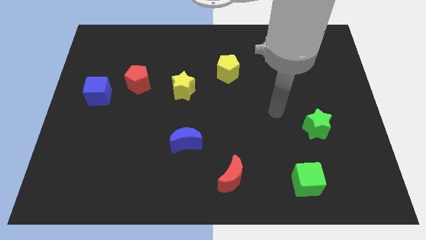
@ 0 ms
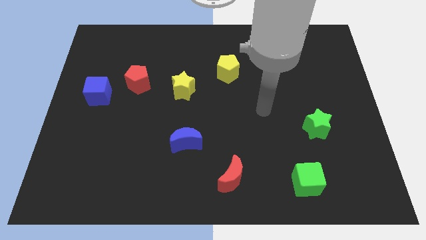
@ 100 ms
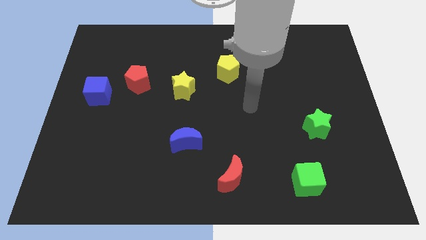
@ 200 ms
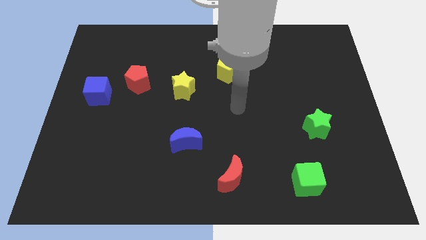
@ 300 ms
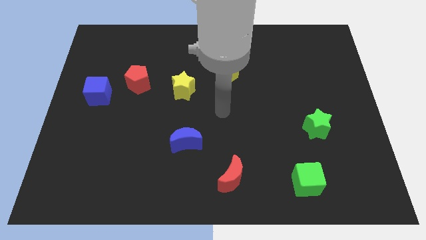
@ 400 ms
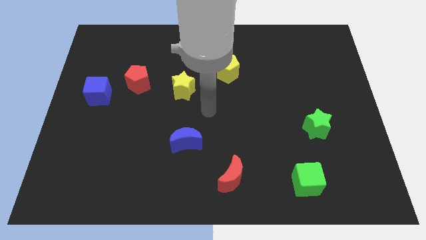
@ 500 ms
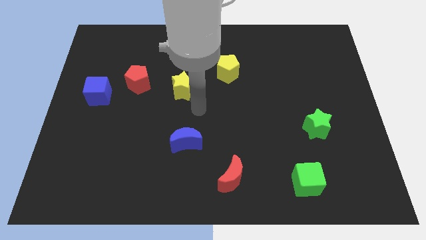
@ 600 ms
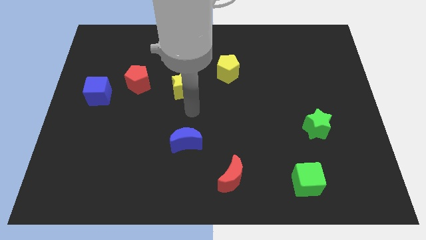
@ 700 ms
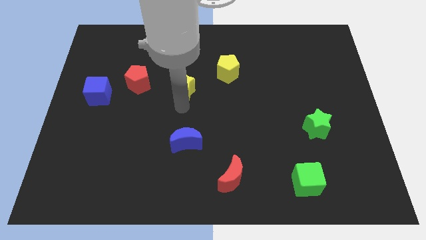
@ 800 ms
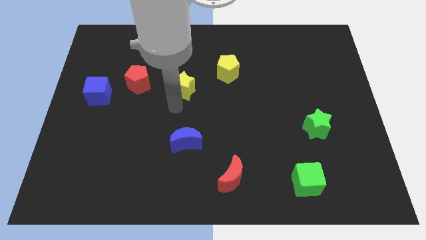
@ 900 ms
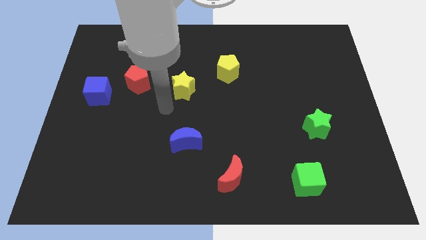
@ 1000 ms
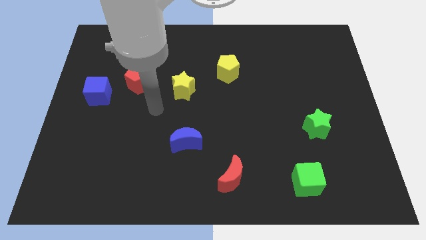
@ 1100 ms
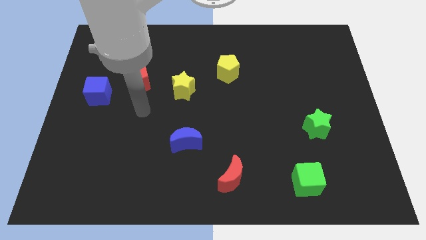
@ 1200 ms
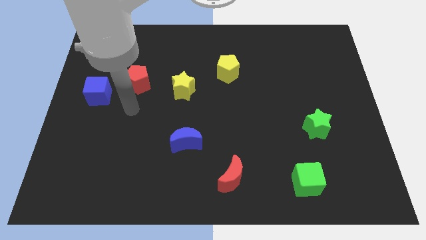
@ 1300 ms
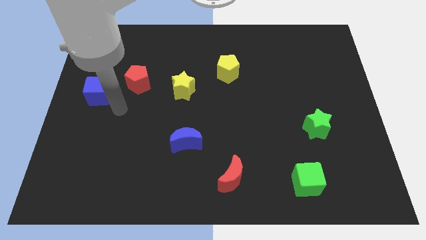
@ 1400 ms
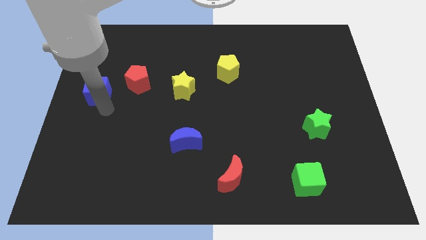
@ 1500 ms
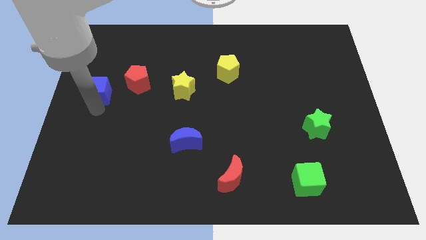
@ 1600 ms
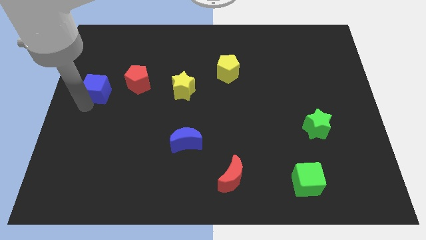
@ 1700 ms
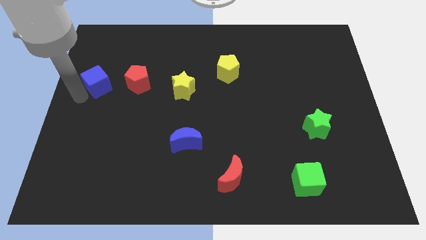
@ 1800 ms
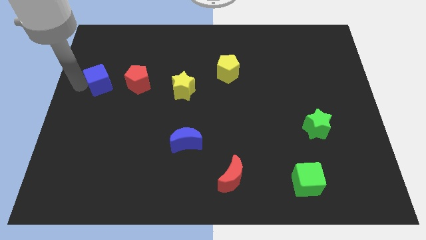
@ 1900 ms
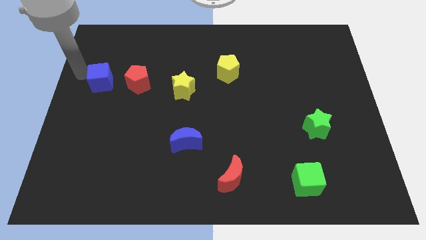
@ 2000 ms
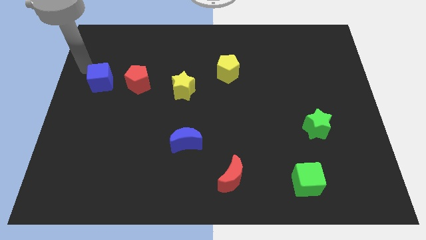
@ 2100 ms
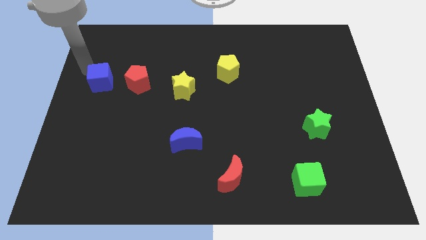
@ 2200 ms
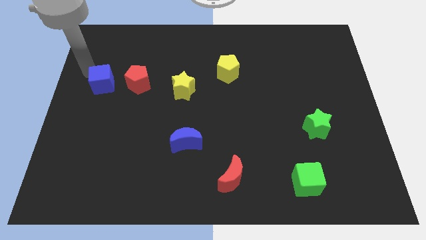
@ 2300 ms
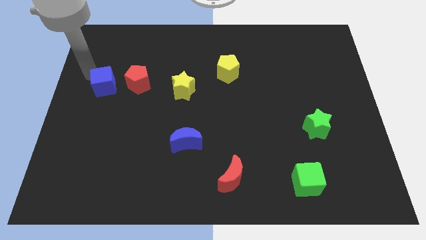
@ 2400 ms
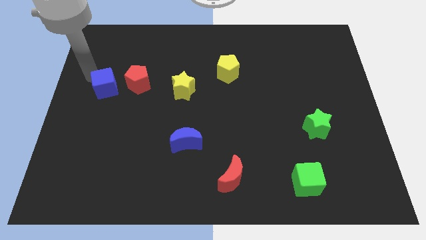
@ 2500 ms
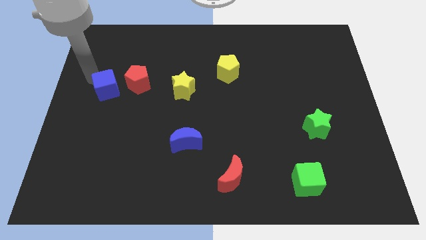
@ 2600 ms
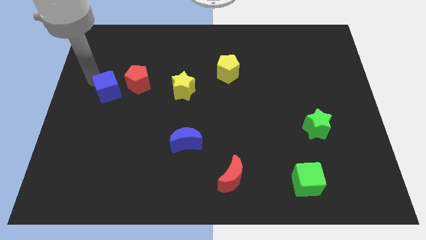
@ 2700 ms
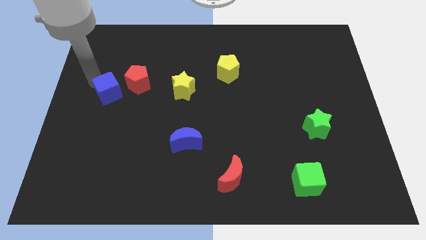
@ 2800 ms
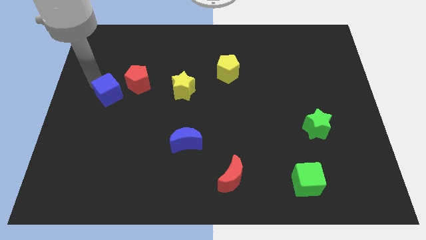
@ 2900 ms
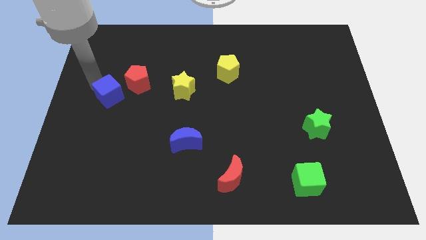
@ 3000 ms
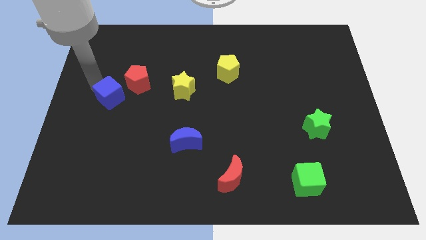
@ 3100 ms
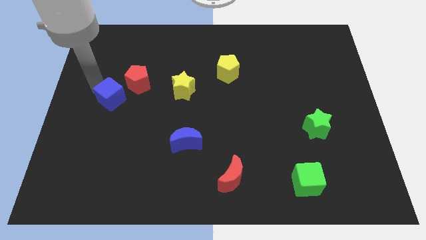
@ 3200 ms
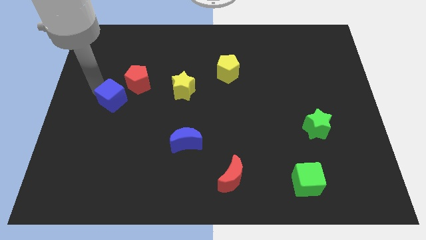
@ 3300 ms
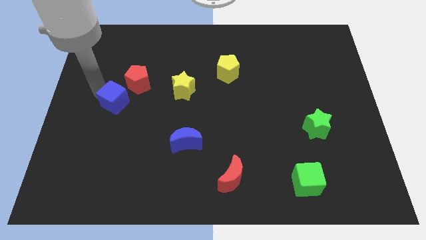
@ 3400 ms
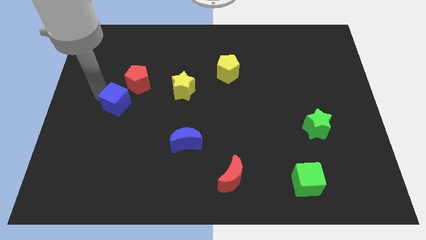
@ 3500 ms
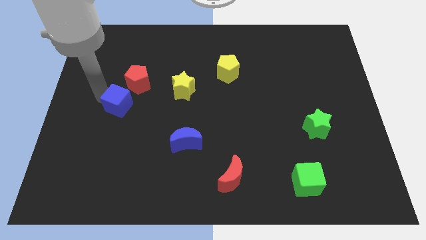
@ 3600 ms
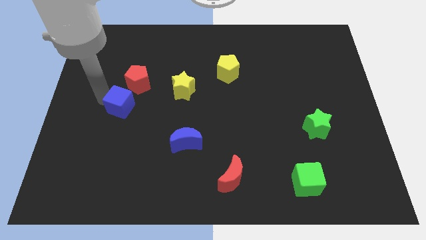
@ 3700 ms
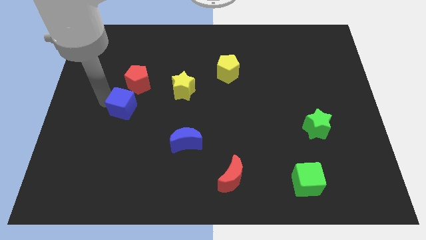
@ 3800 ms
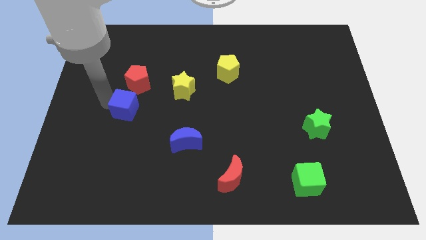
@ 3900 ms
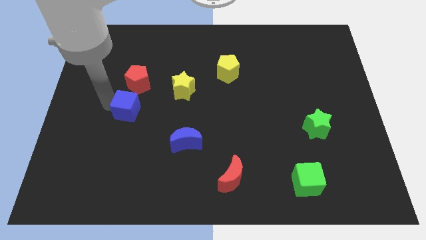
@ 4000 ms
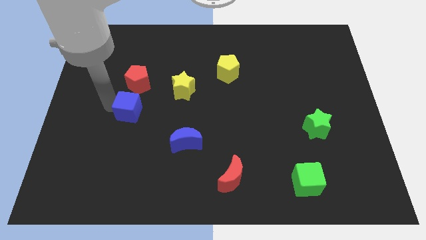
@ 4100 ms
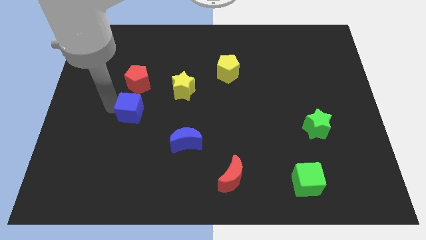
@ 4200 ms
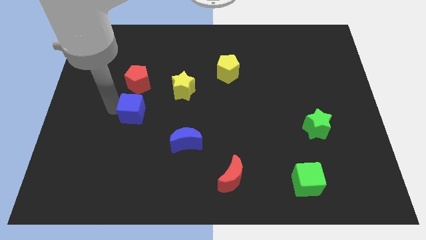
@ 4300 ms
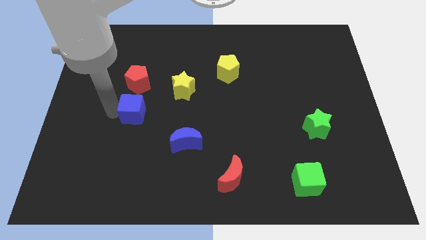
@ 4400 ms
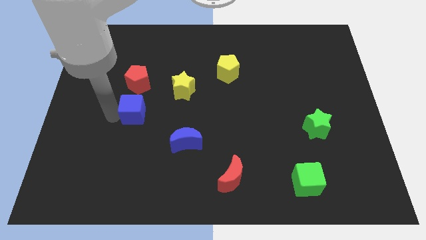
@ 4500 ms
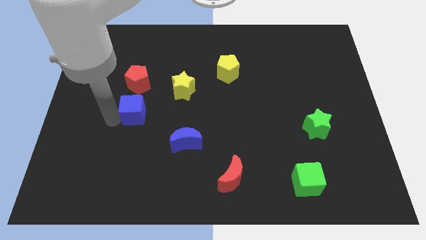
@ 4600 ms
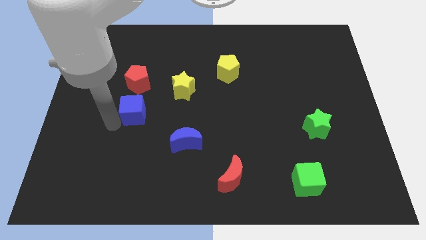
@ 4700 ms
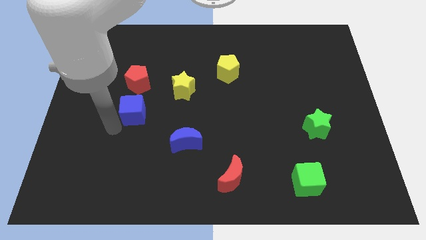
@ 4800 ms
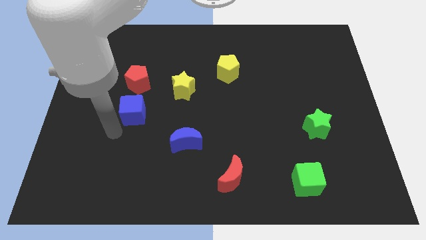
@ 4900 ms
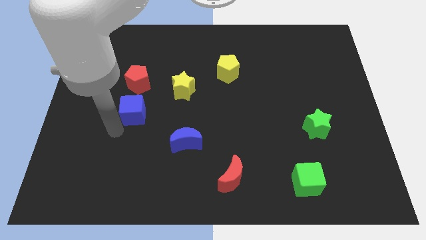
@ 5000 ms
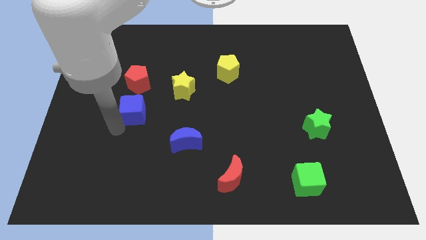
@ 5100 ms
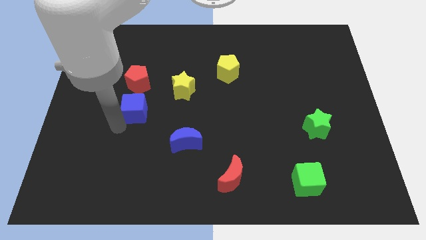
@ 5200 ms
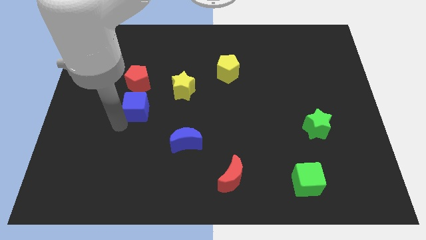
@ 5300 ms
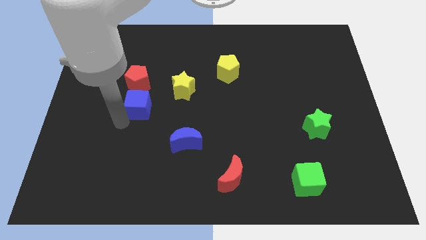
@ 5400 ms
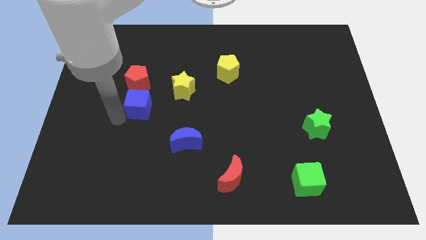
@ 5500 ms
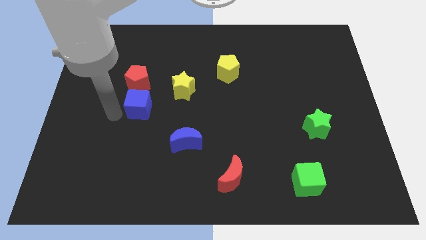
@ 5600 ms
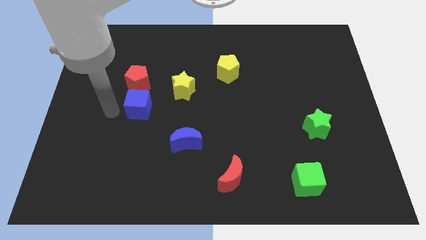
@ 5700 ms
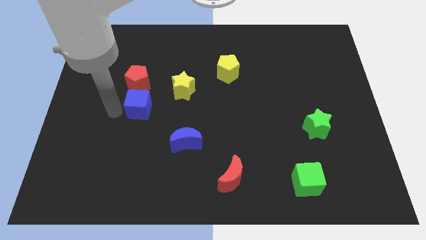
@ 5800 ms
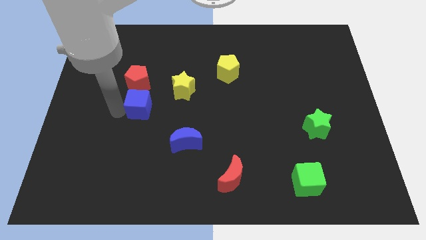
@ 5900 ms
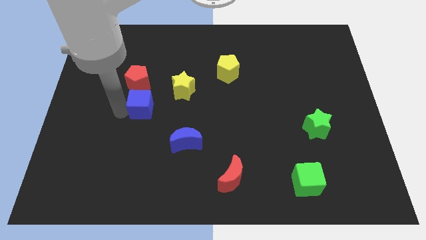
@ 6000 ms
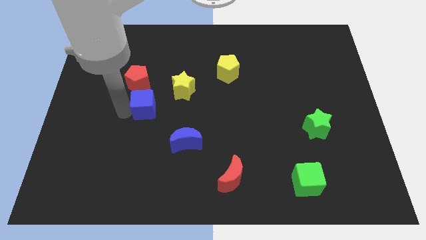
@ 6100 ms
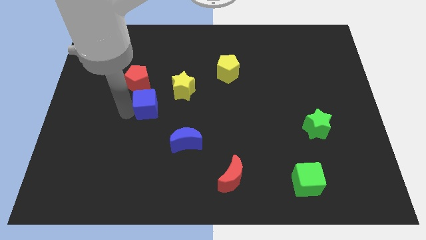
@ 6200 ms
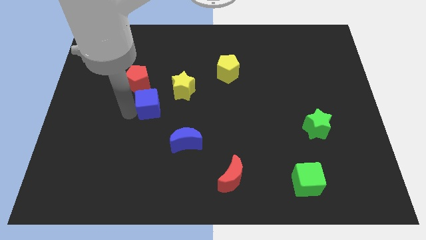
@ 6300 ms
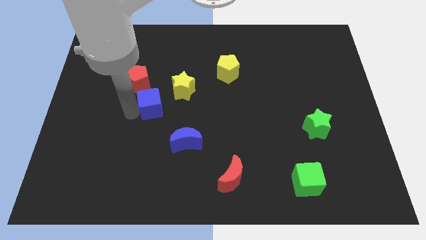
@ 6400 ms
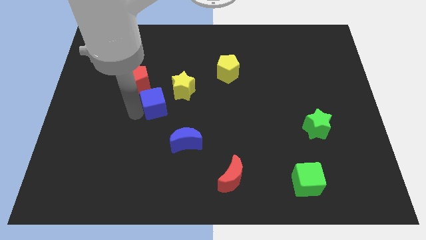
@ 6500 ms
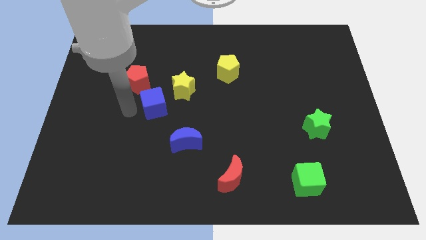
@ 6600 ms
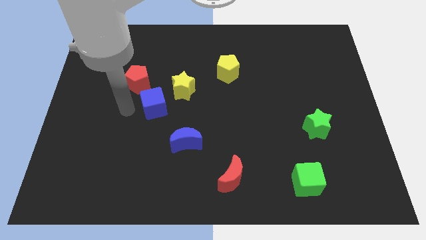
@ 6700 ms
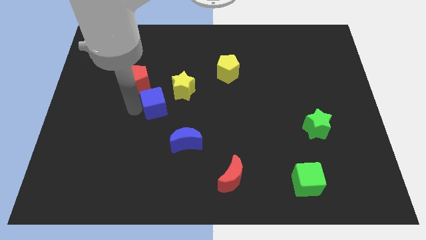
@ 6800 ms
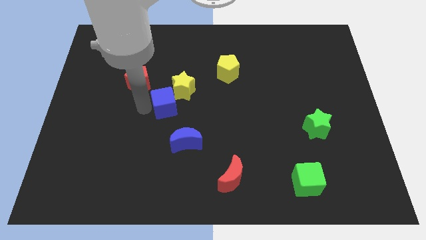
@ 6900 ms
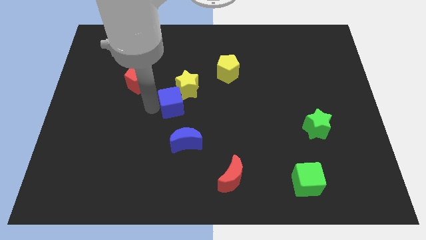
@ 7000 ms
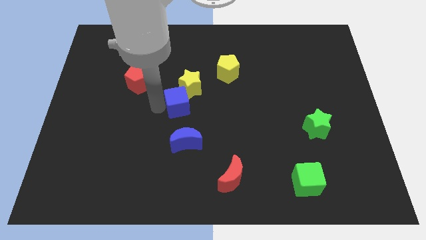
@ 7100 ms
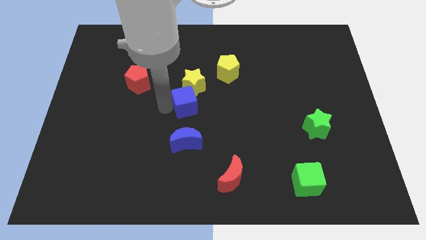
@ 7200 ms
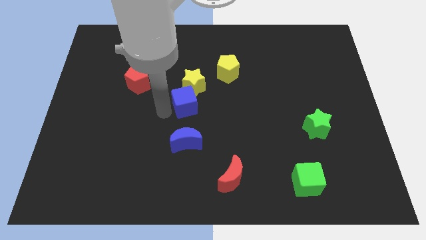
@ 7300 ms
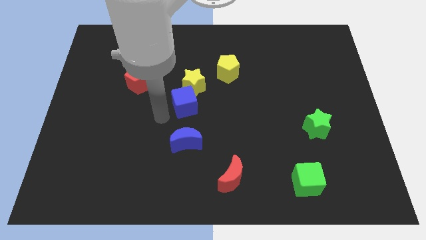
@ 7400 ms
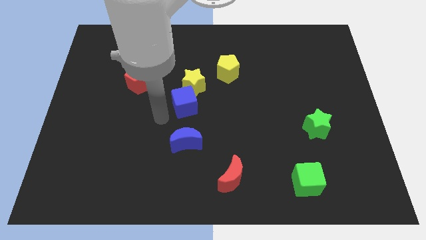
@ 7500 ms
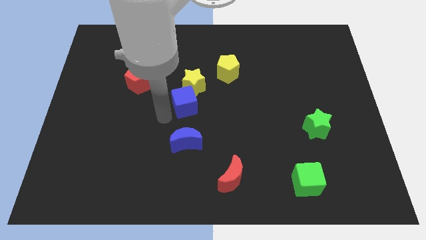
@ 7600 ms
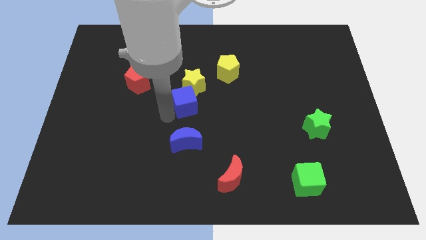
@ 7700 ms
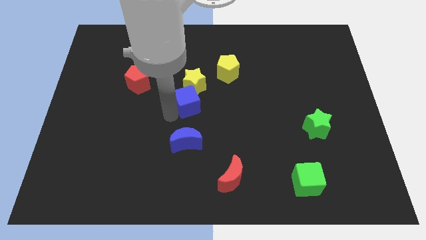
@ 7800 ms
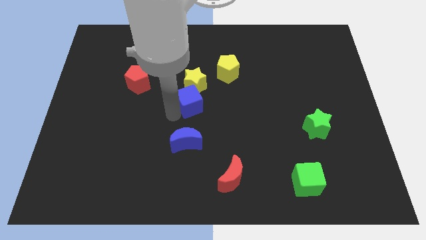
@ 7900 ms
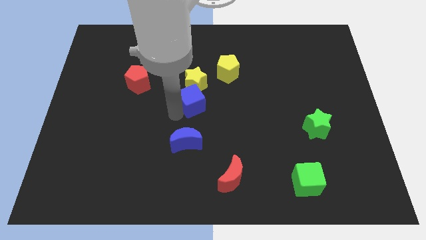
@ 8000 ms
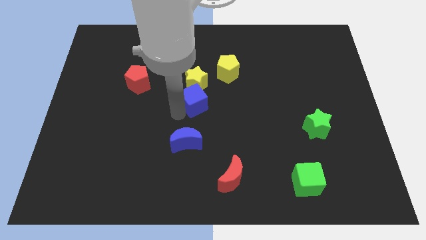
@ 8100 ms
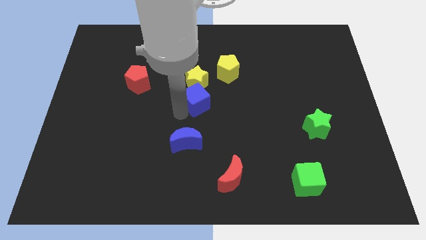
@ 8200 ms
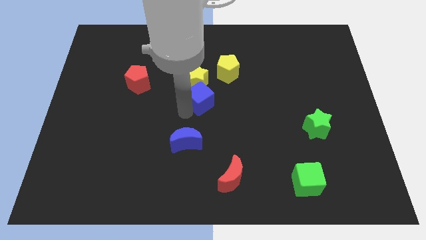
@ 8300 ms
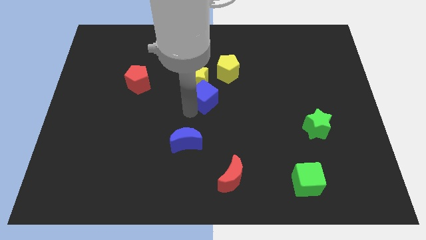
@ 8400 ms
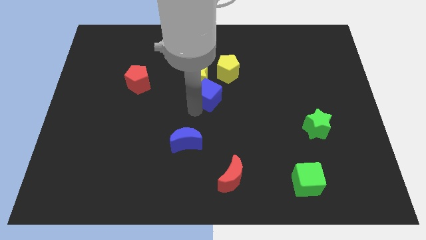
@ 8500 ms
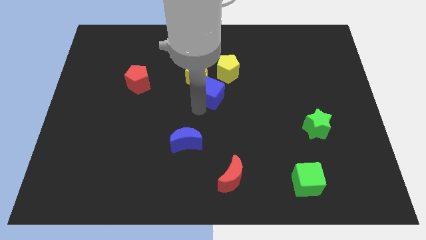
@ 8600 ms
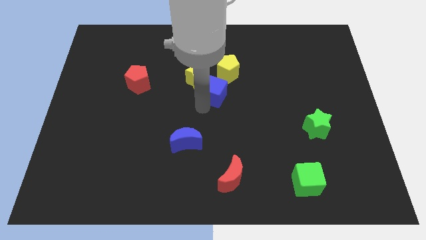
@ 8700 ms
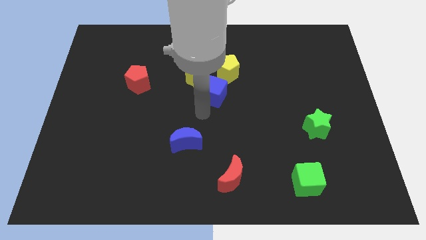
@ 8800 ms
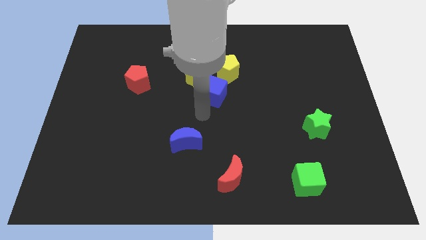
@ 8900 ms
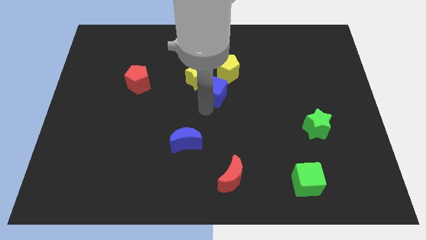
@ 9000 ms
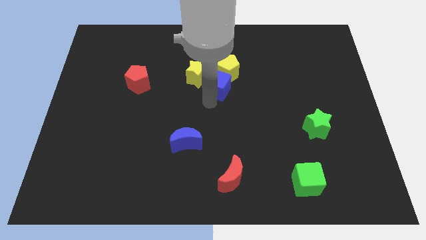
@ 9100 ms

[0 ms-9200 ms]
slide the blue cube towards the yellow pentagon
